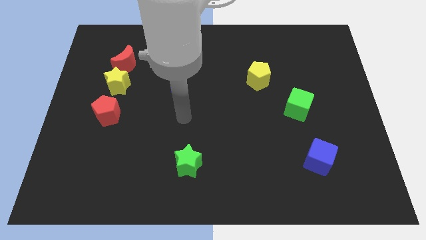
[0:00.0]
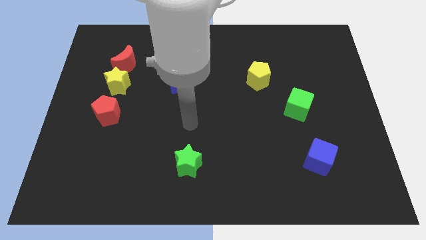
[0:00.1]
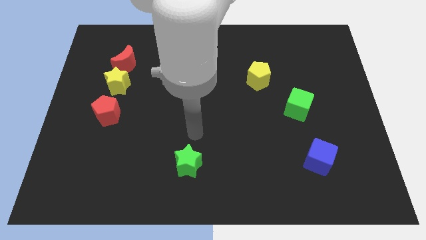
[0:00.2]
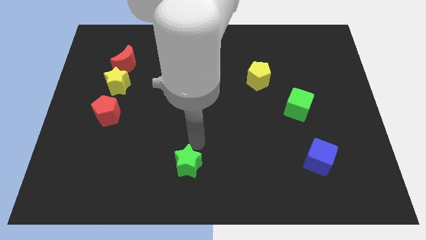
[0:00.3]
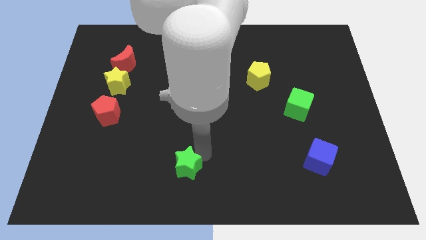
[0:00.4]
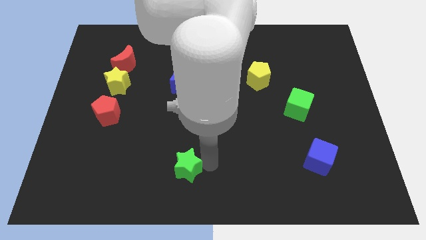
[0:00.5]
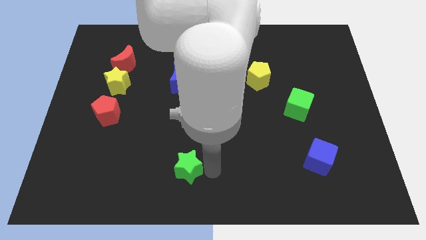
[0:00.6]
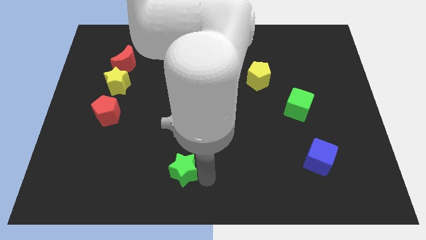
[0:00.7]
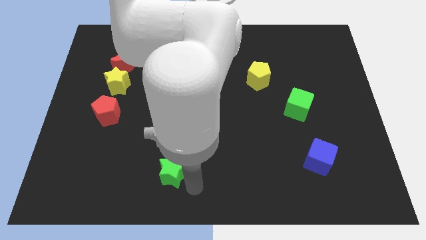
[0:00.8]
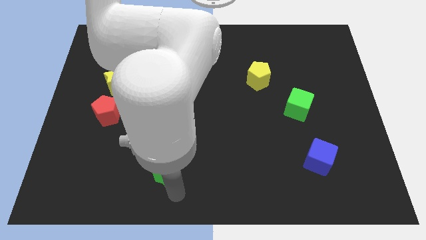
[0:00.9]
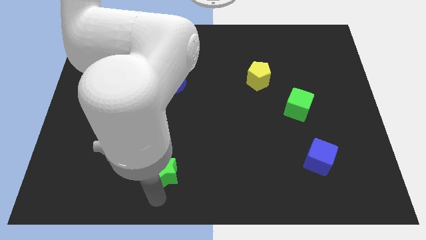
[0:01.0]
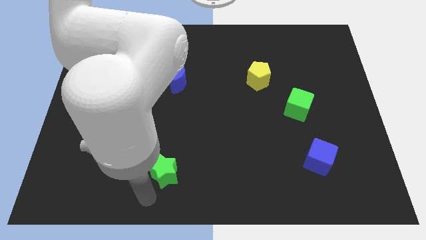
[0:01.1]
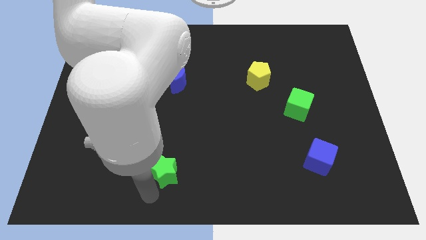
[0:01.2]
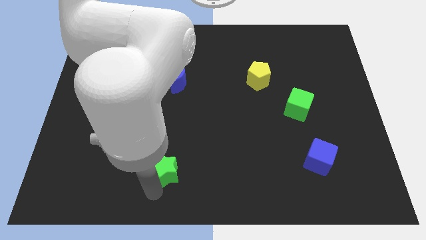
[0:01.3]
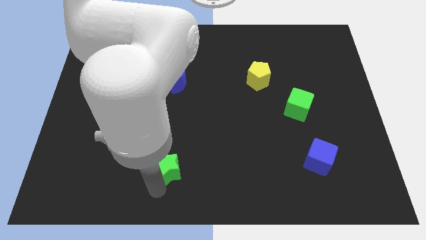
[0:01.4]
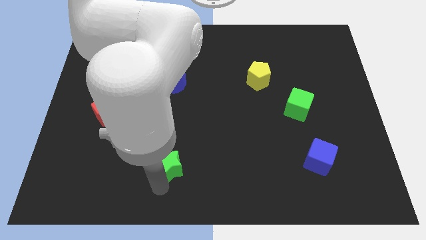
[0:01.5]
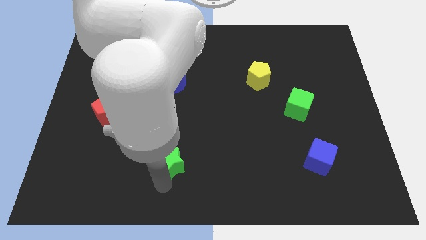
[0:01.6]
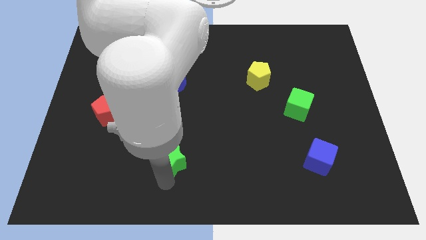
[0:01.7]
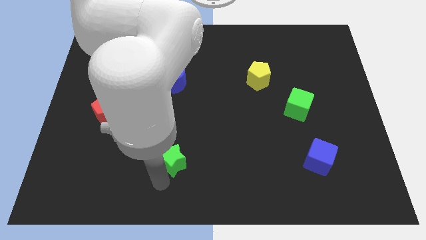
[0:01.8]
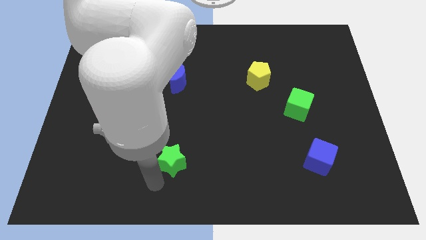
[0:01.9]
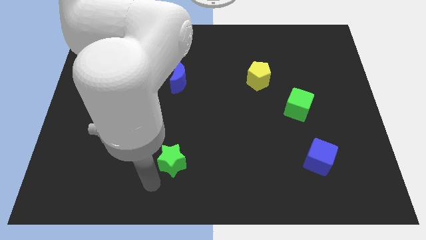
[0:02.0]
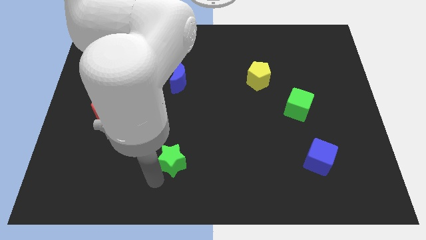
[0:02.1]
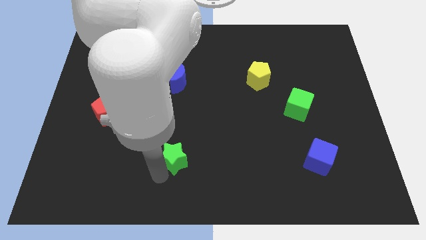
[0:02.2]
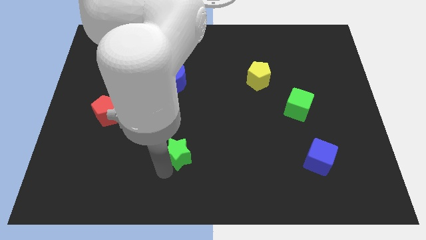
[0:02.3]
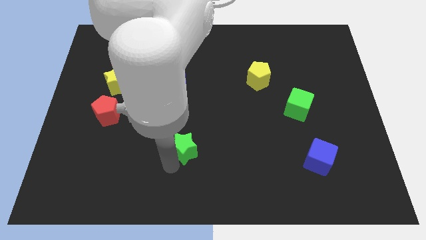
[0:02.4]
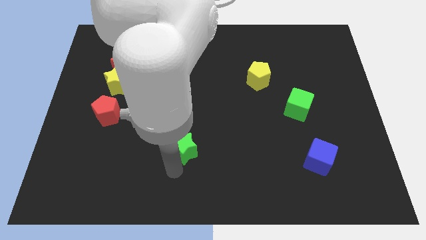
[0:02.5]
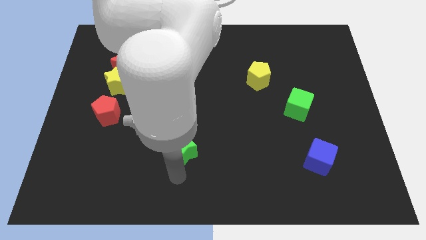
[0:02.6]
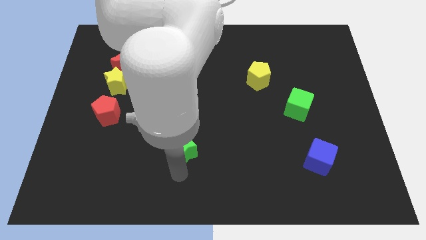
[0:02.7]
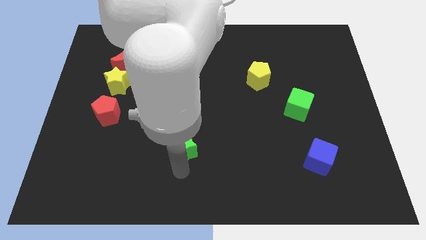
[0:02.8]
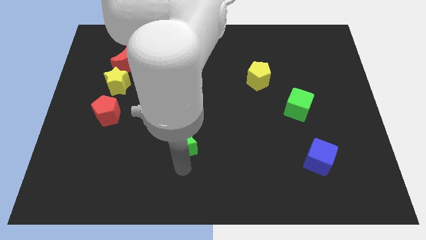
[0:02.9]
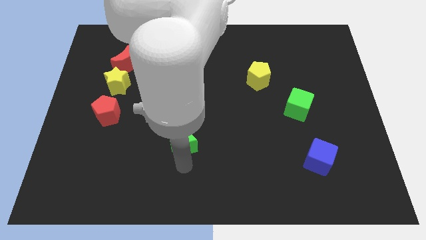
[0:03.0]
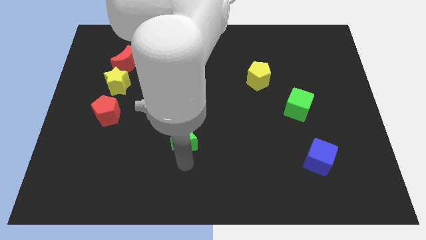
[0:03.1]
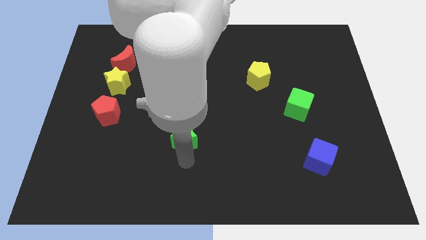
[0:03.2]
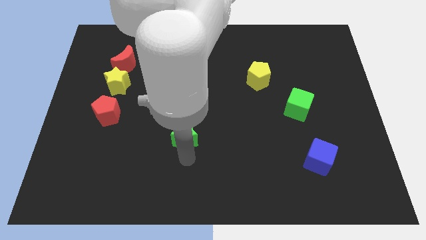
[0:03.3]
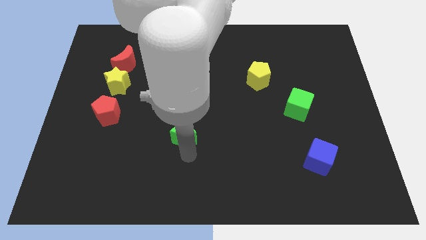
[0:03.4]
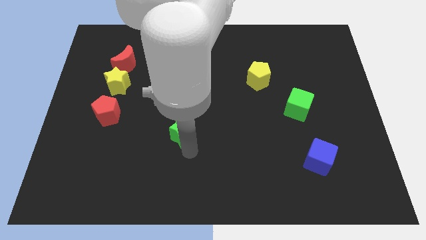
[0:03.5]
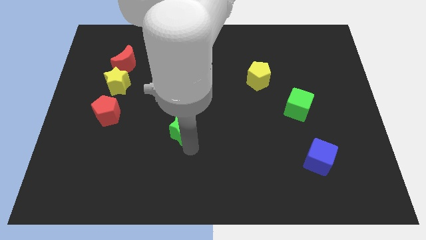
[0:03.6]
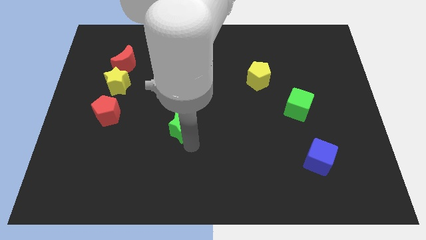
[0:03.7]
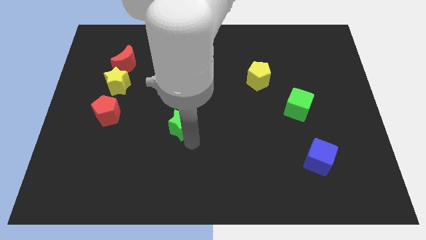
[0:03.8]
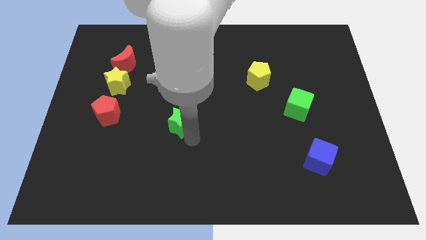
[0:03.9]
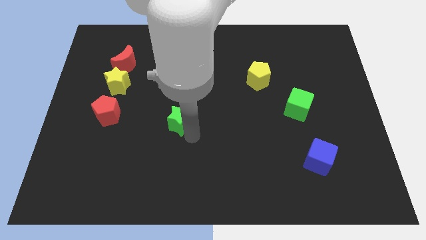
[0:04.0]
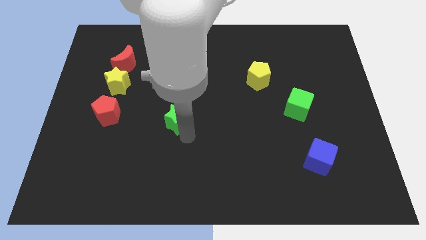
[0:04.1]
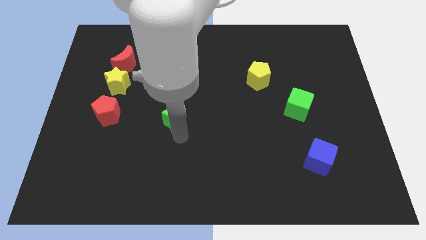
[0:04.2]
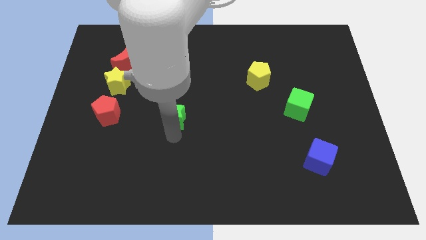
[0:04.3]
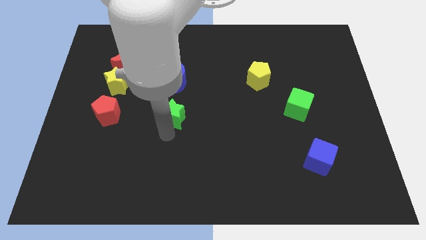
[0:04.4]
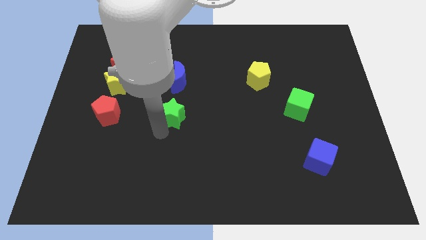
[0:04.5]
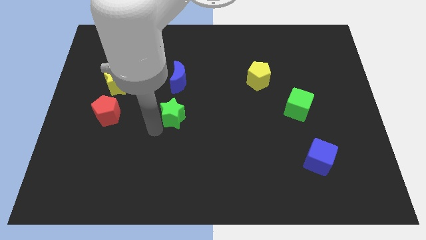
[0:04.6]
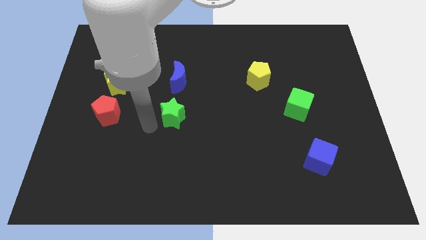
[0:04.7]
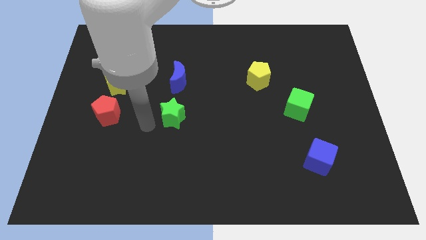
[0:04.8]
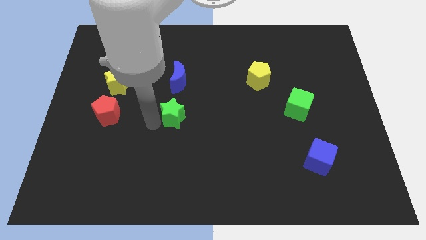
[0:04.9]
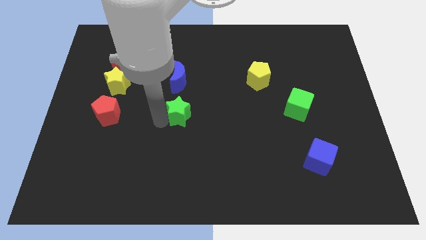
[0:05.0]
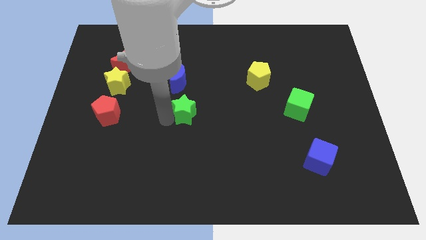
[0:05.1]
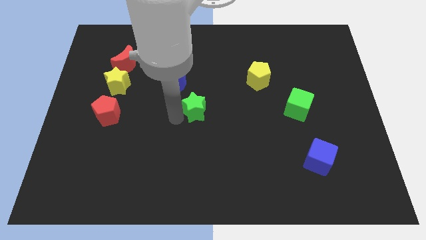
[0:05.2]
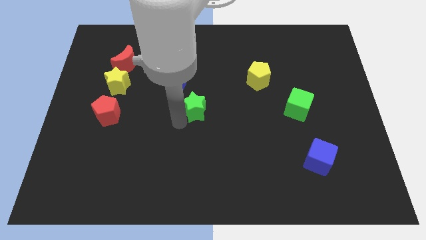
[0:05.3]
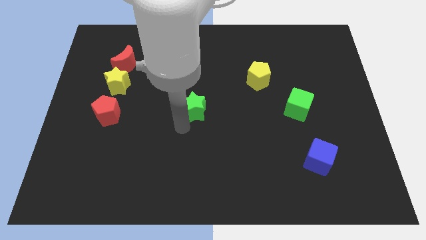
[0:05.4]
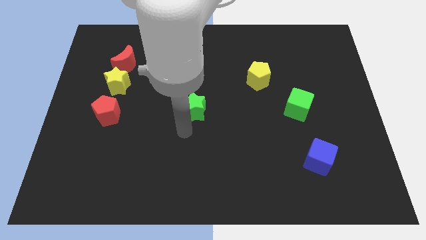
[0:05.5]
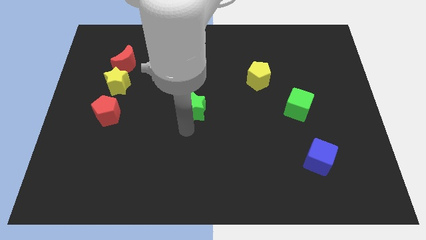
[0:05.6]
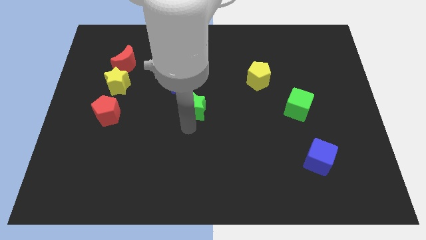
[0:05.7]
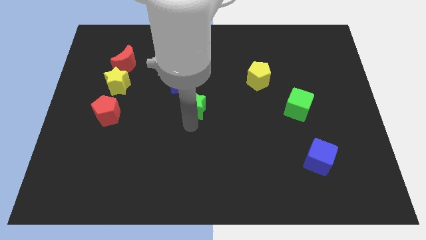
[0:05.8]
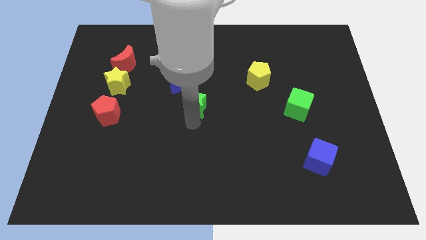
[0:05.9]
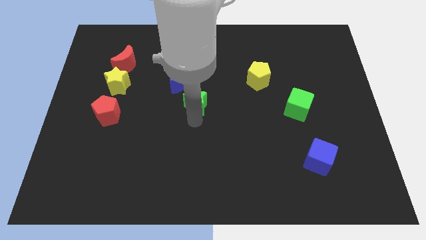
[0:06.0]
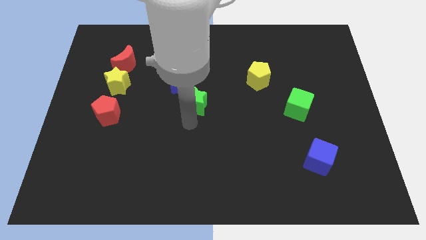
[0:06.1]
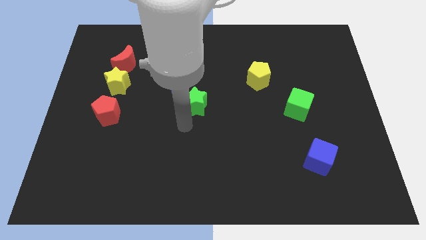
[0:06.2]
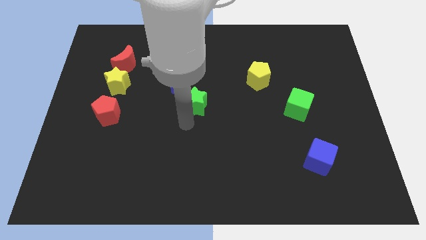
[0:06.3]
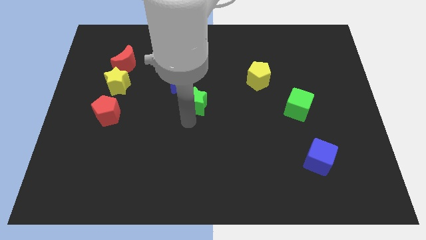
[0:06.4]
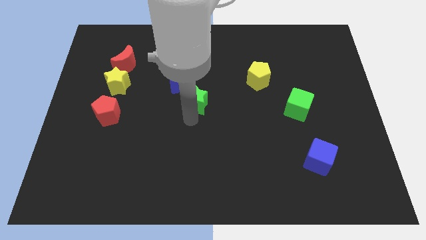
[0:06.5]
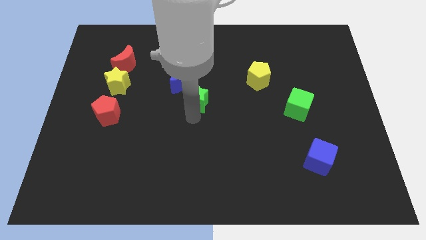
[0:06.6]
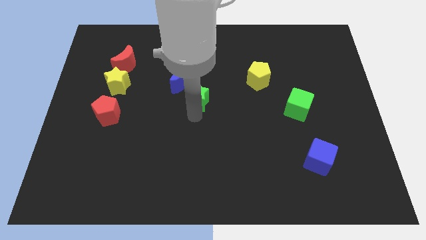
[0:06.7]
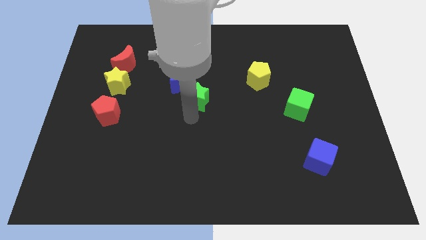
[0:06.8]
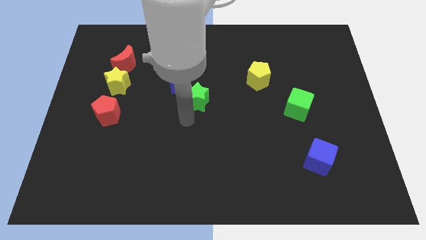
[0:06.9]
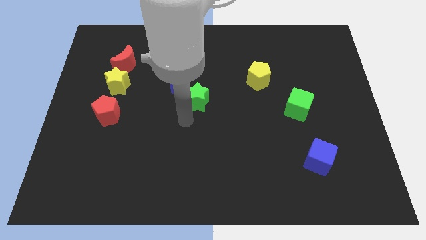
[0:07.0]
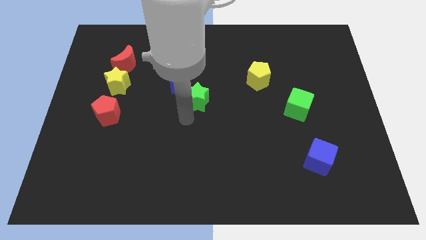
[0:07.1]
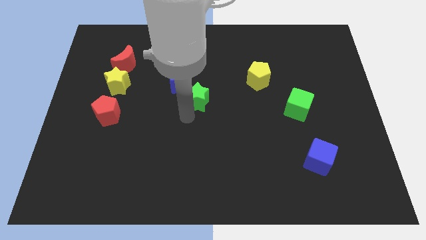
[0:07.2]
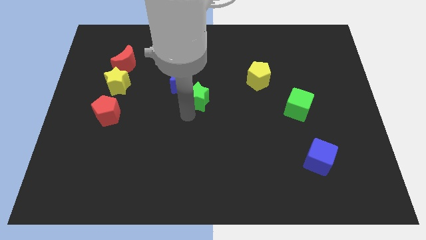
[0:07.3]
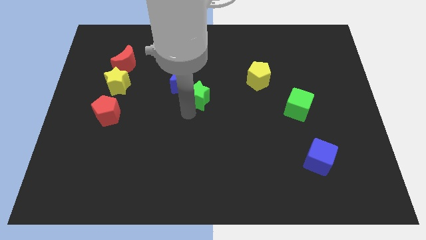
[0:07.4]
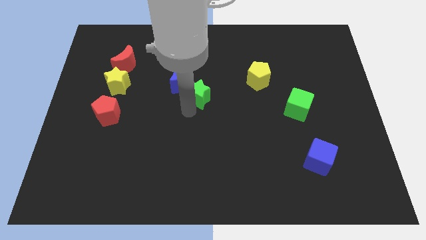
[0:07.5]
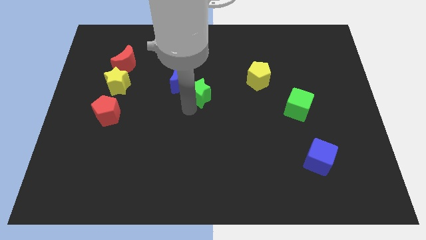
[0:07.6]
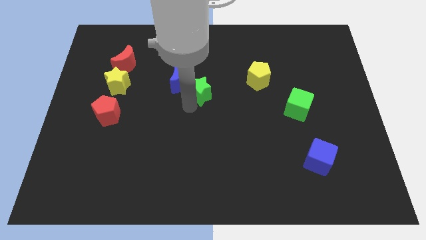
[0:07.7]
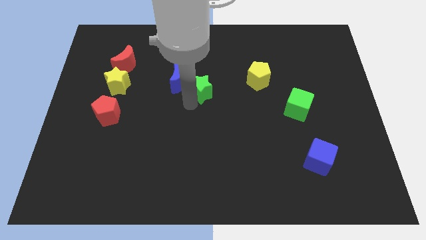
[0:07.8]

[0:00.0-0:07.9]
slide the green star up

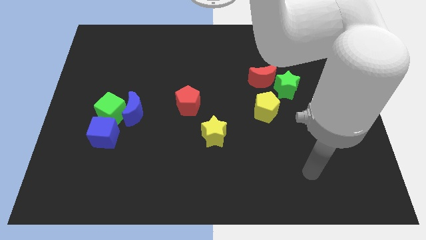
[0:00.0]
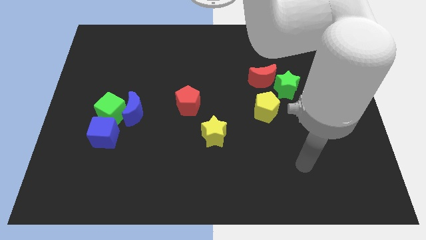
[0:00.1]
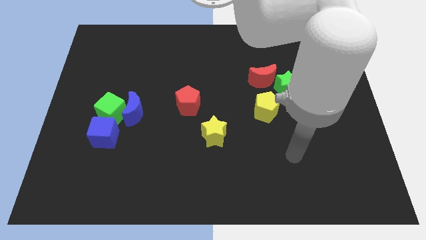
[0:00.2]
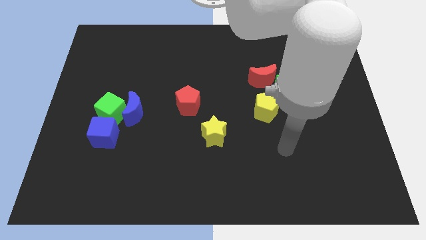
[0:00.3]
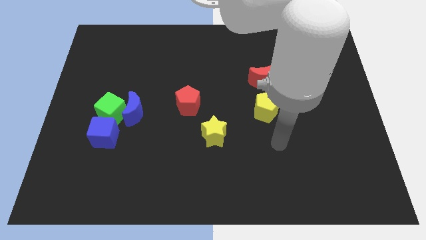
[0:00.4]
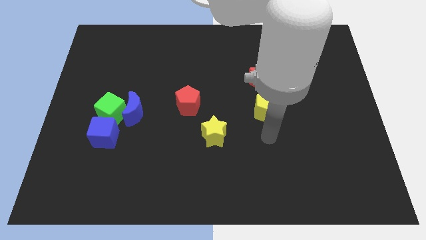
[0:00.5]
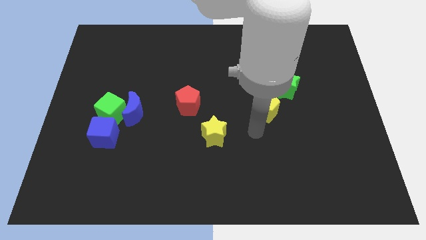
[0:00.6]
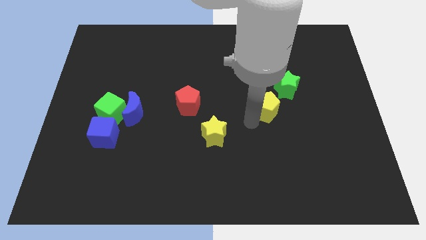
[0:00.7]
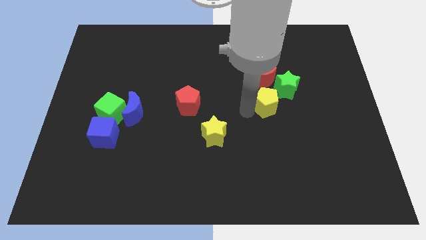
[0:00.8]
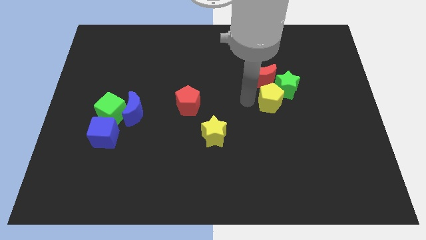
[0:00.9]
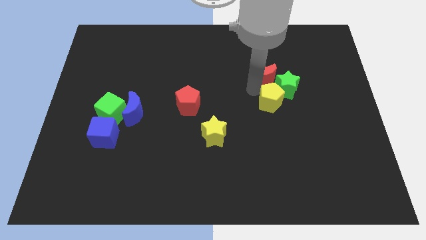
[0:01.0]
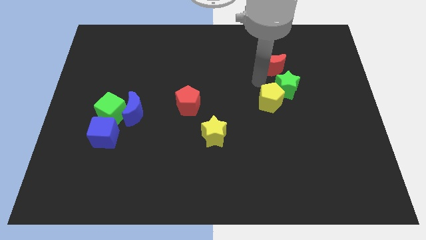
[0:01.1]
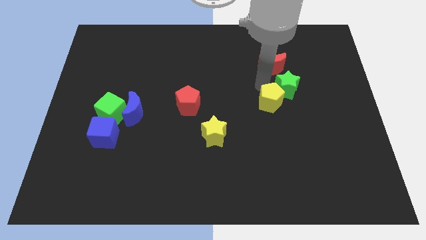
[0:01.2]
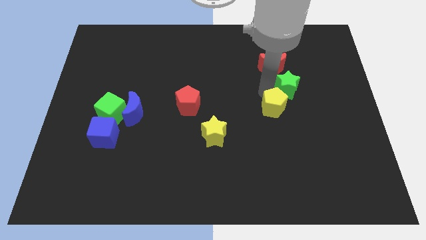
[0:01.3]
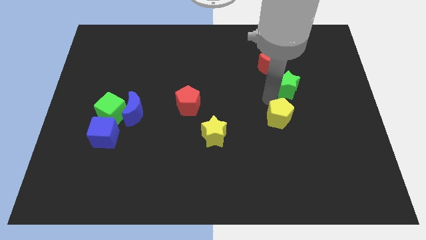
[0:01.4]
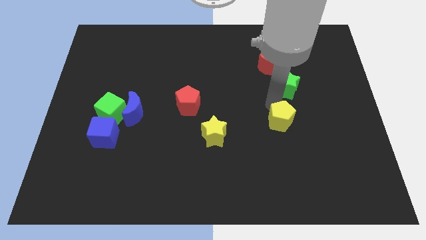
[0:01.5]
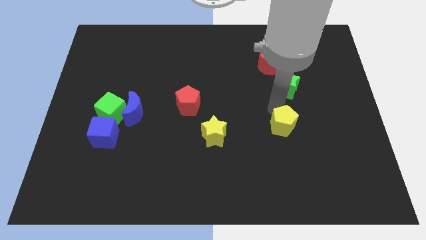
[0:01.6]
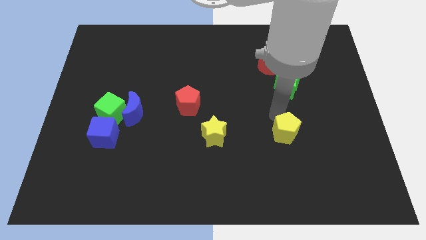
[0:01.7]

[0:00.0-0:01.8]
slide the yellow pentagon down and then to the right somewhat
